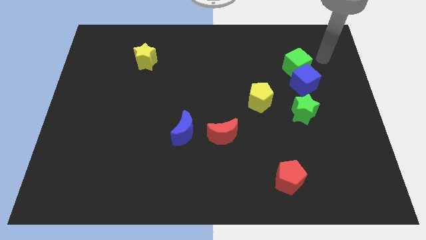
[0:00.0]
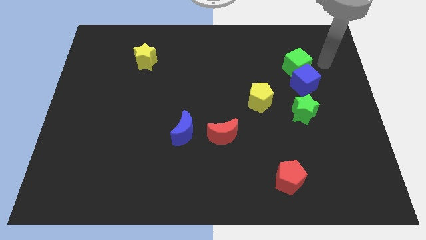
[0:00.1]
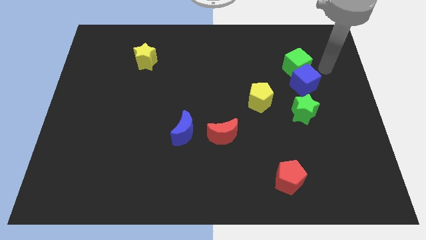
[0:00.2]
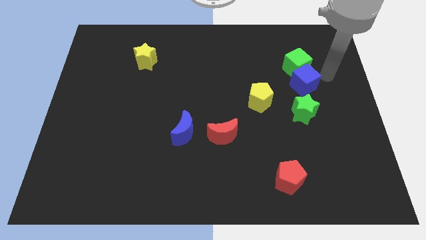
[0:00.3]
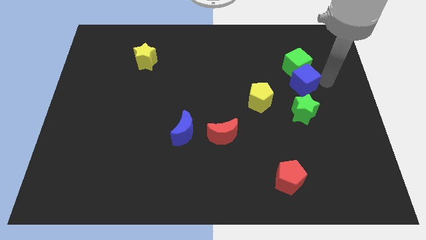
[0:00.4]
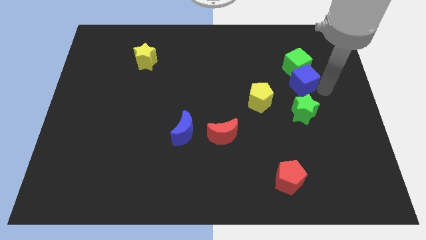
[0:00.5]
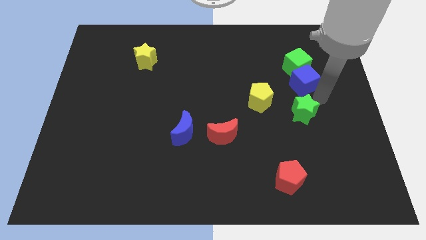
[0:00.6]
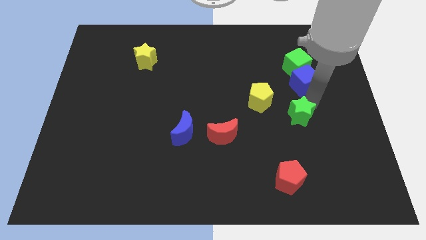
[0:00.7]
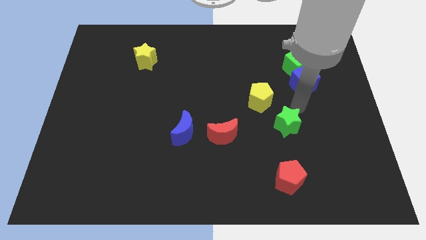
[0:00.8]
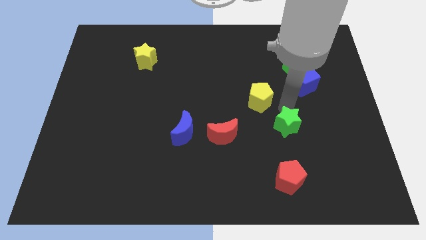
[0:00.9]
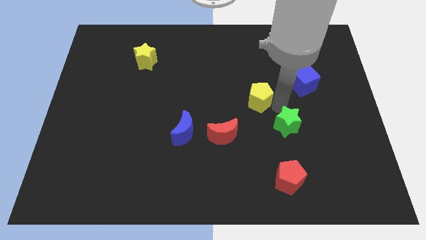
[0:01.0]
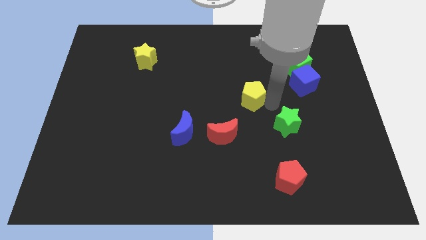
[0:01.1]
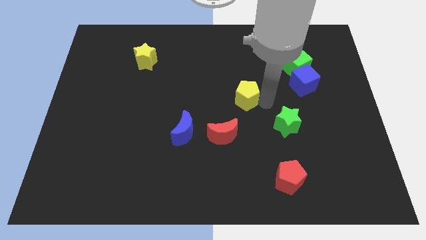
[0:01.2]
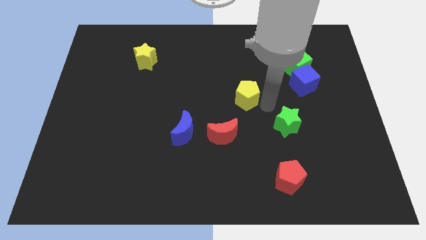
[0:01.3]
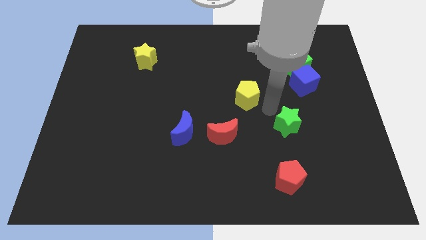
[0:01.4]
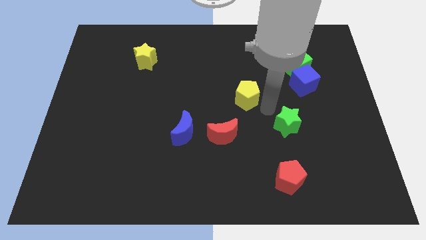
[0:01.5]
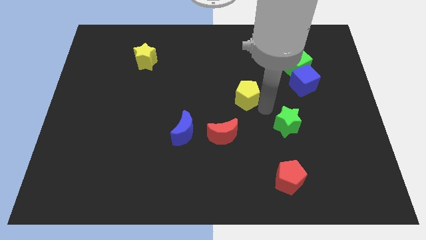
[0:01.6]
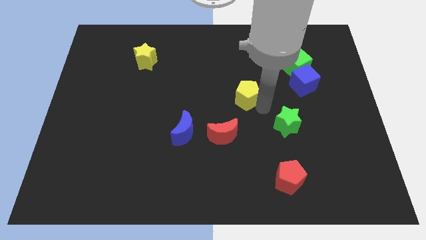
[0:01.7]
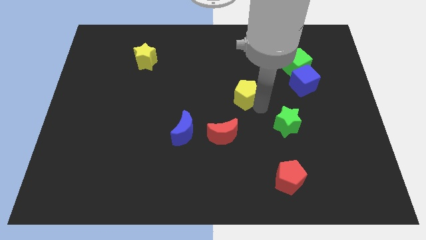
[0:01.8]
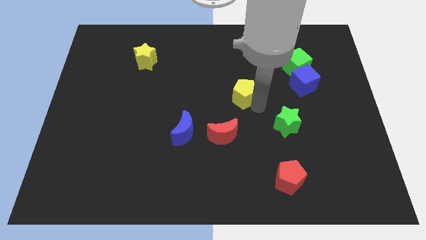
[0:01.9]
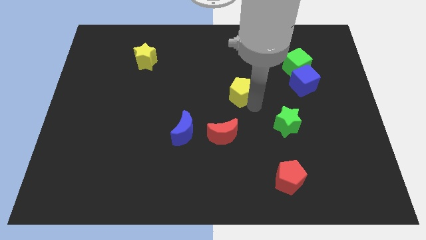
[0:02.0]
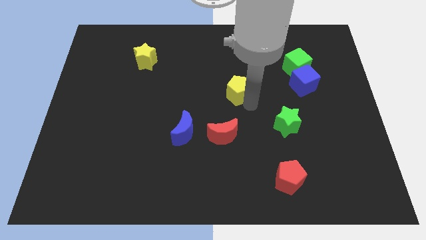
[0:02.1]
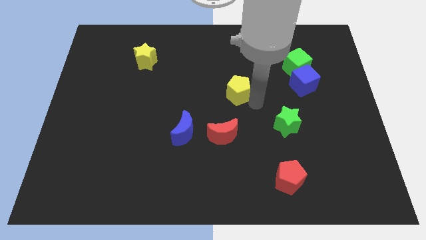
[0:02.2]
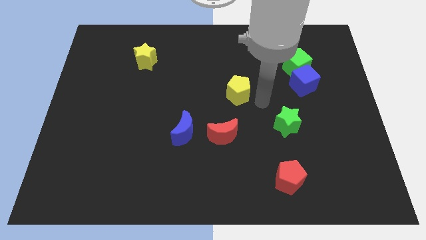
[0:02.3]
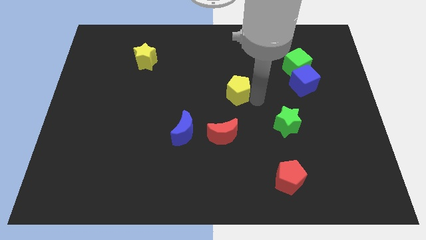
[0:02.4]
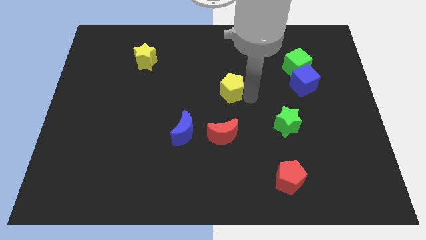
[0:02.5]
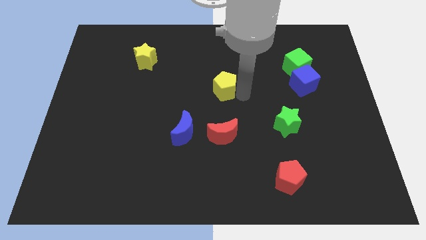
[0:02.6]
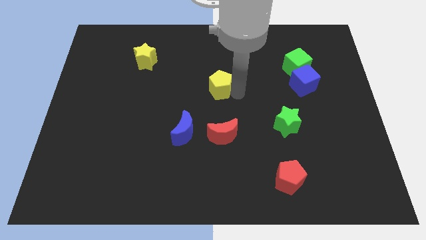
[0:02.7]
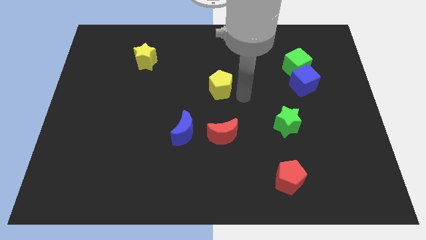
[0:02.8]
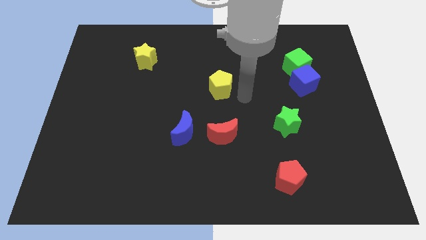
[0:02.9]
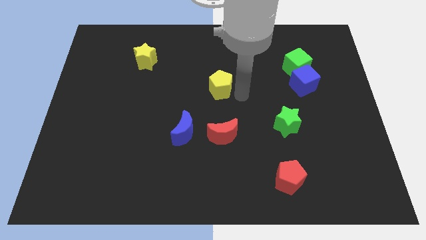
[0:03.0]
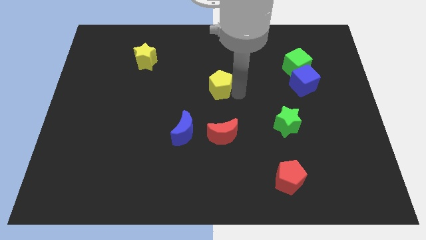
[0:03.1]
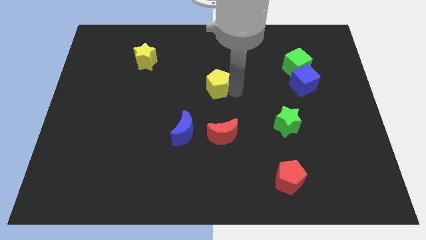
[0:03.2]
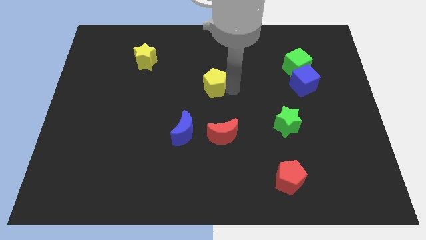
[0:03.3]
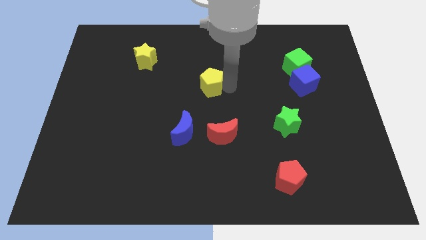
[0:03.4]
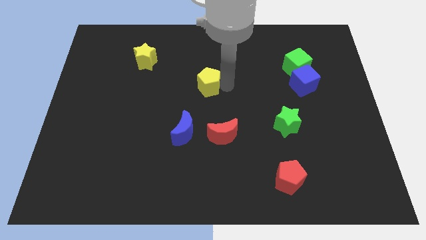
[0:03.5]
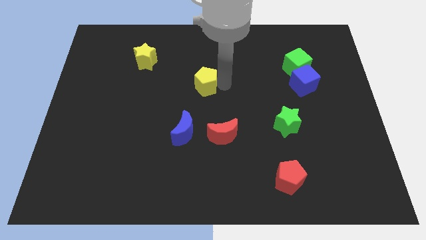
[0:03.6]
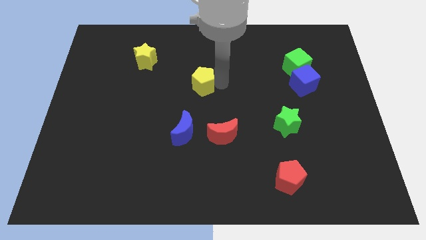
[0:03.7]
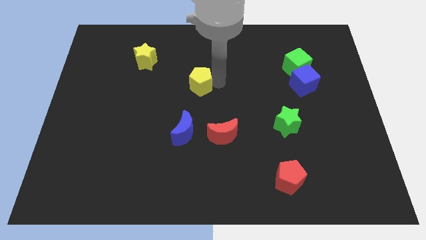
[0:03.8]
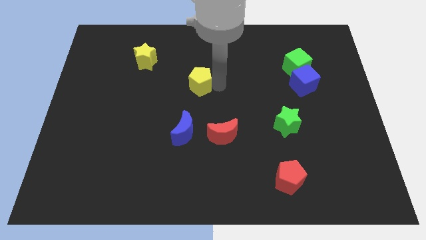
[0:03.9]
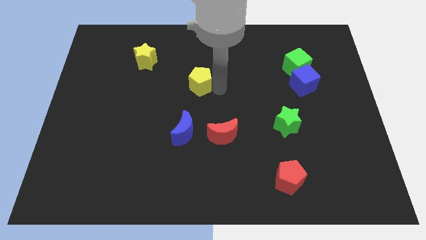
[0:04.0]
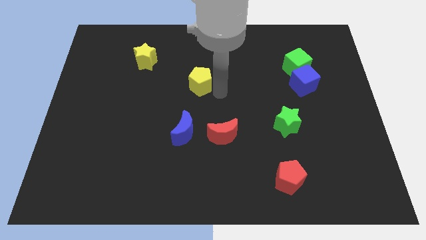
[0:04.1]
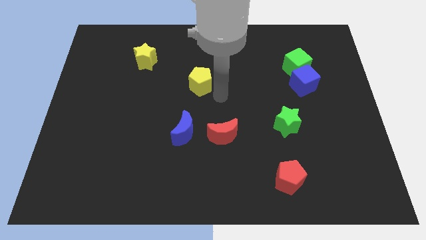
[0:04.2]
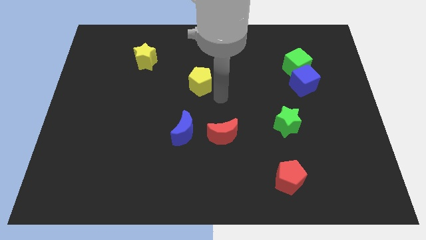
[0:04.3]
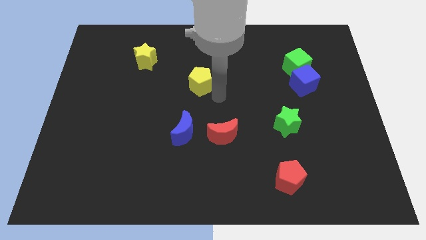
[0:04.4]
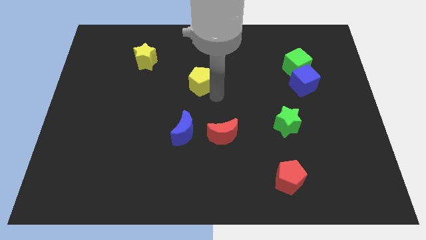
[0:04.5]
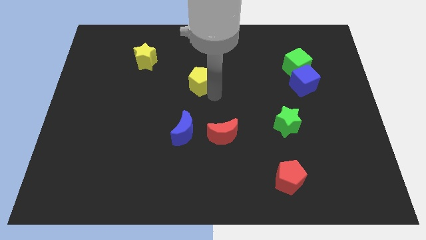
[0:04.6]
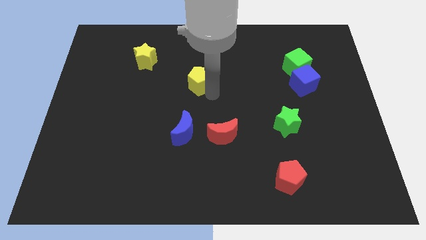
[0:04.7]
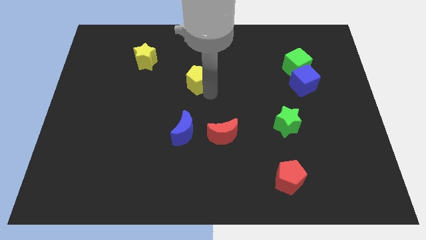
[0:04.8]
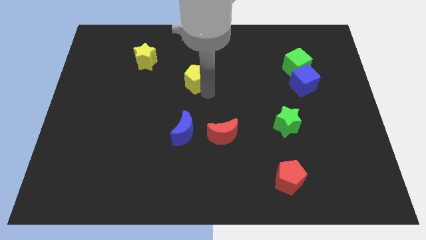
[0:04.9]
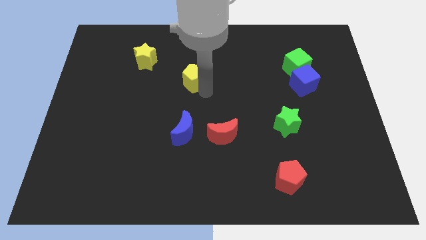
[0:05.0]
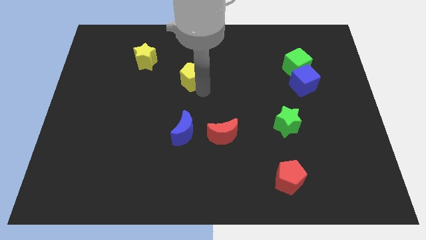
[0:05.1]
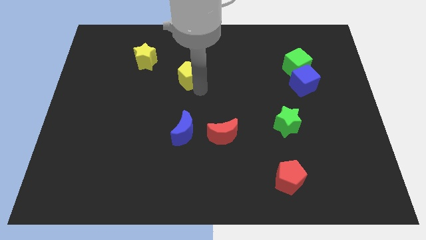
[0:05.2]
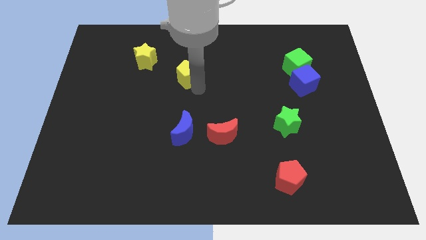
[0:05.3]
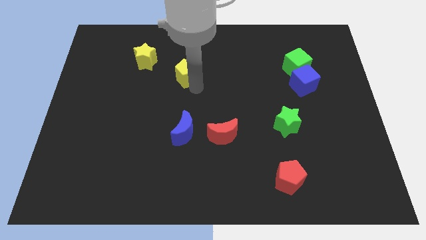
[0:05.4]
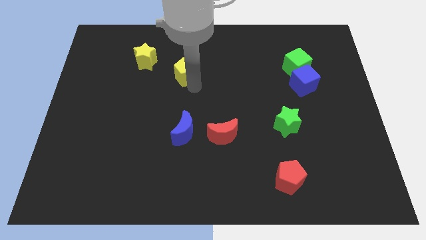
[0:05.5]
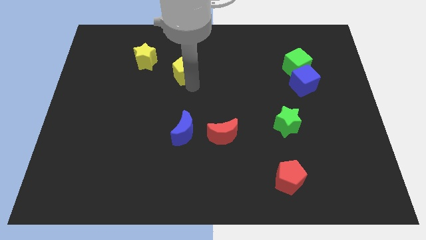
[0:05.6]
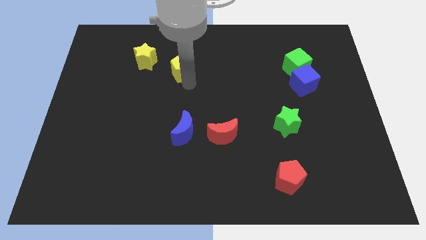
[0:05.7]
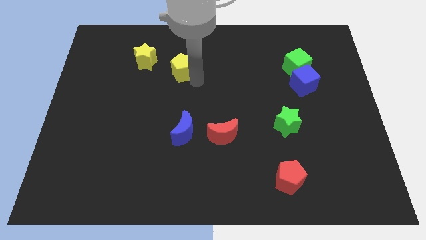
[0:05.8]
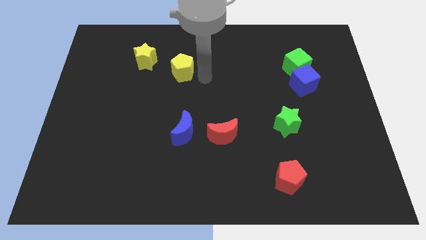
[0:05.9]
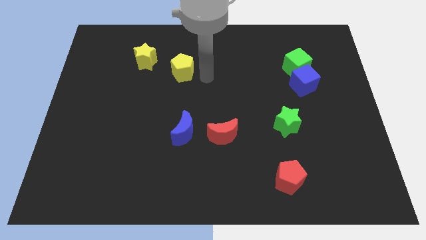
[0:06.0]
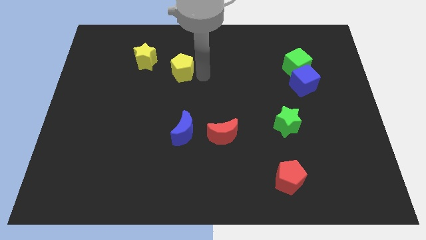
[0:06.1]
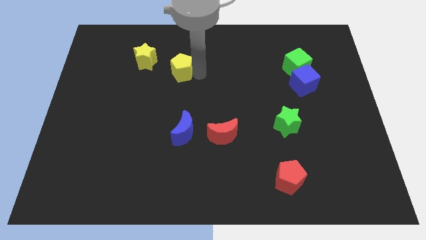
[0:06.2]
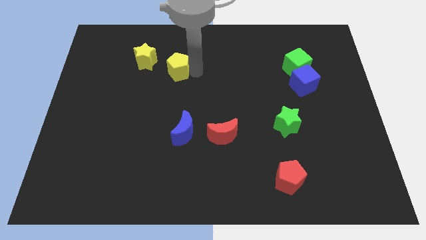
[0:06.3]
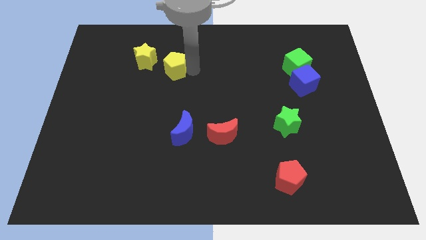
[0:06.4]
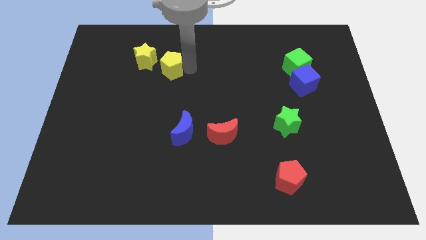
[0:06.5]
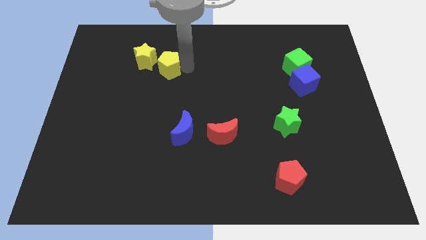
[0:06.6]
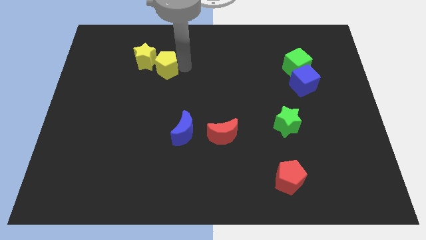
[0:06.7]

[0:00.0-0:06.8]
push the yellow pentagon next to the yellow star

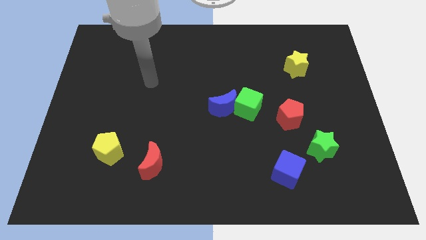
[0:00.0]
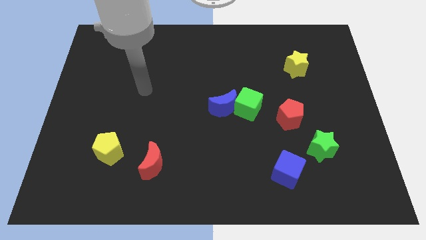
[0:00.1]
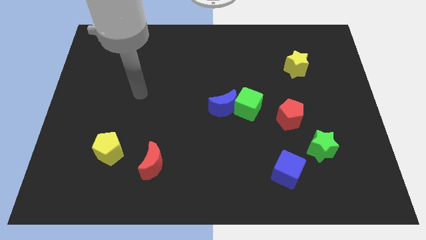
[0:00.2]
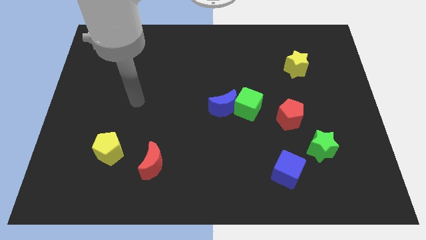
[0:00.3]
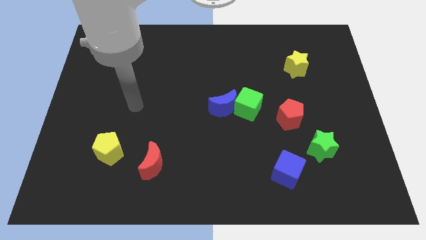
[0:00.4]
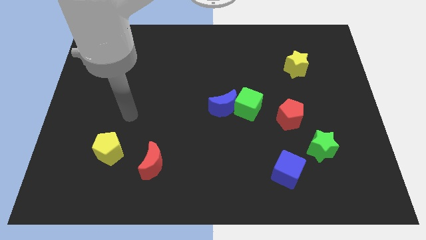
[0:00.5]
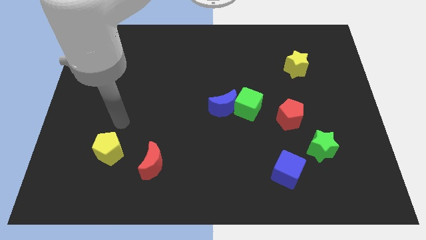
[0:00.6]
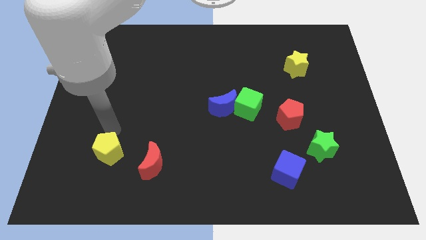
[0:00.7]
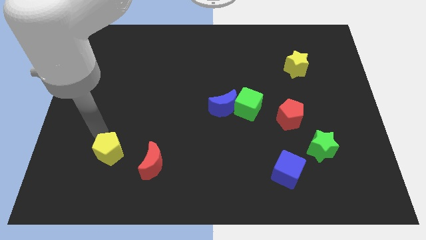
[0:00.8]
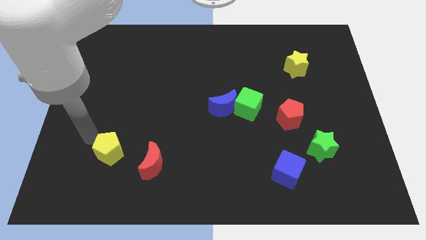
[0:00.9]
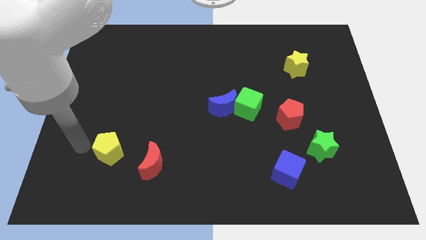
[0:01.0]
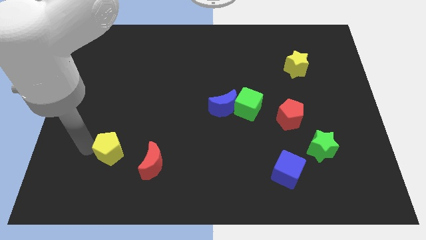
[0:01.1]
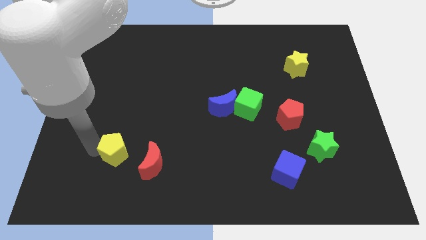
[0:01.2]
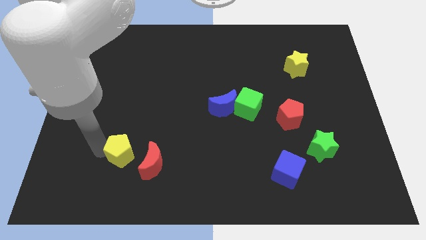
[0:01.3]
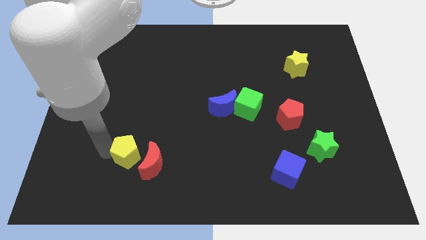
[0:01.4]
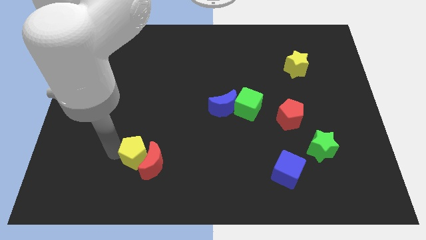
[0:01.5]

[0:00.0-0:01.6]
push the yellow pentagon next to the red moon
